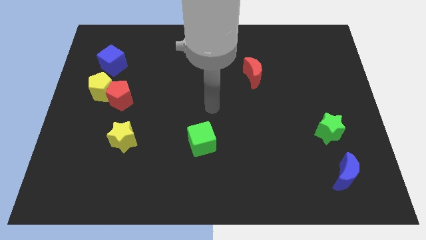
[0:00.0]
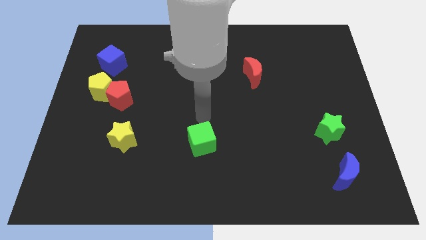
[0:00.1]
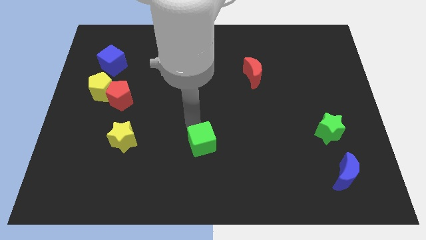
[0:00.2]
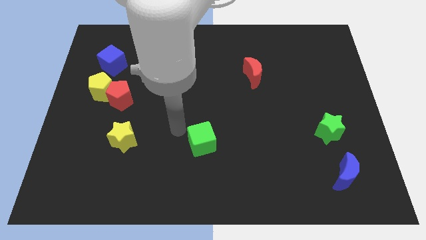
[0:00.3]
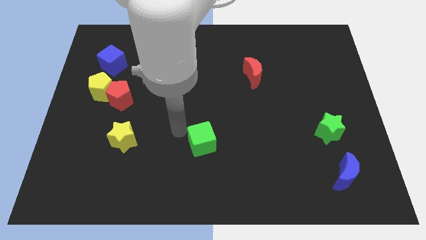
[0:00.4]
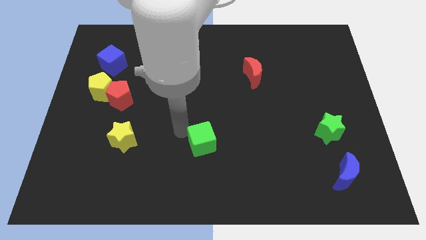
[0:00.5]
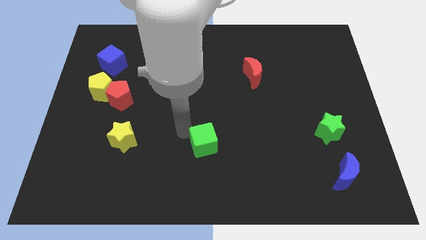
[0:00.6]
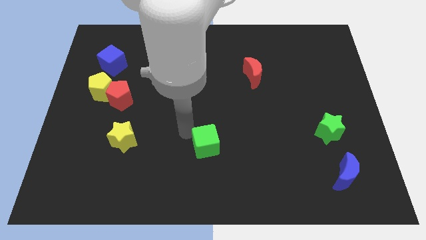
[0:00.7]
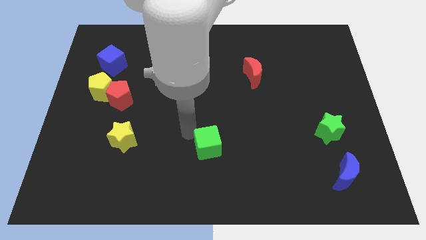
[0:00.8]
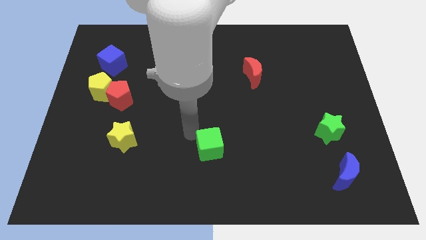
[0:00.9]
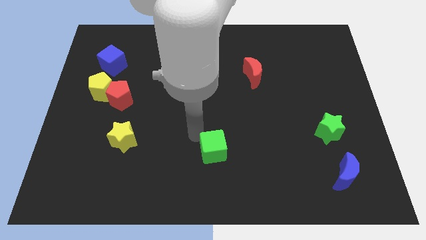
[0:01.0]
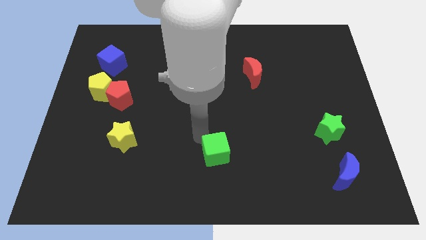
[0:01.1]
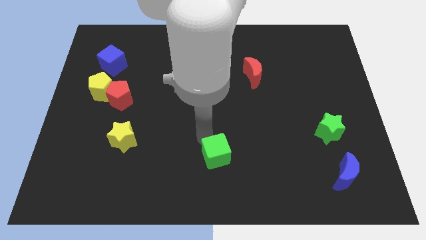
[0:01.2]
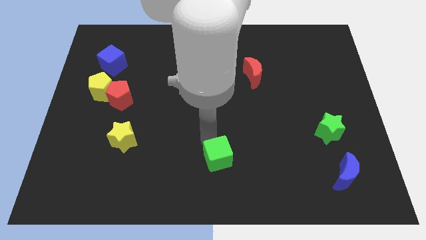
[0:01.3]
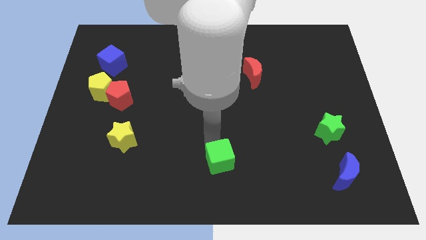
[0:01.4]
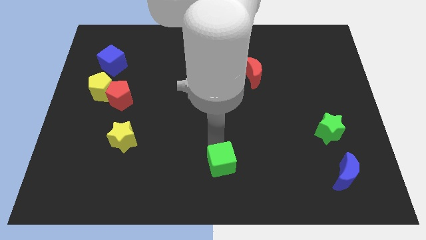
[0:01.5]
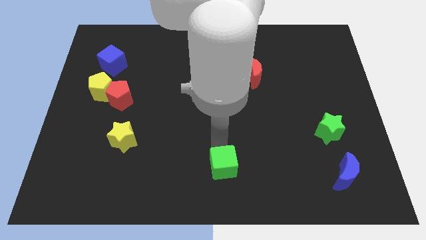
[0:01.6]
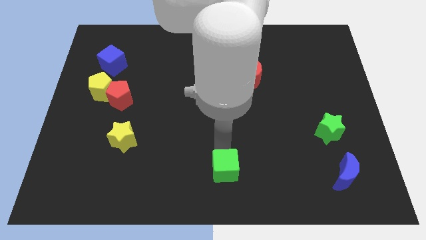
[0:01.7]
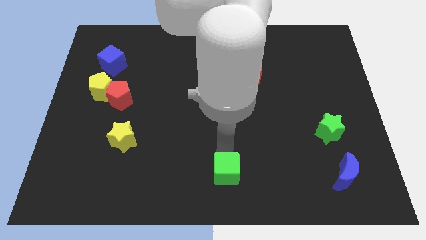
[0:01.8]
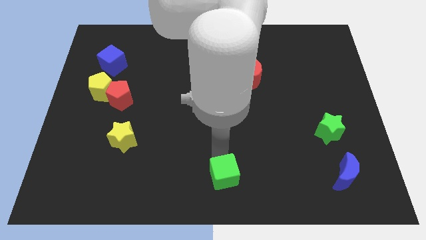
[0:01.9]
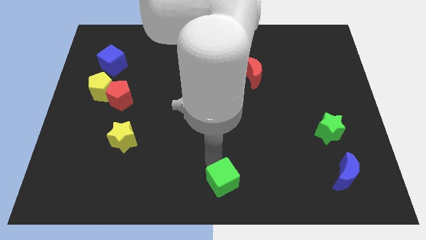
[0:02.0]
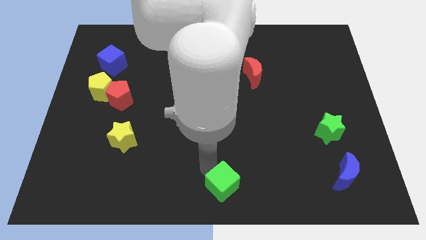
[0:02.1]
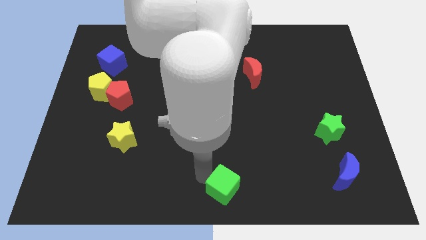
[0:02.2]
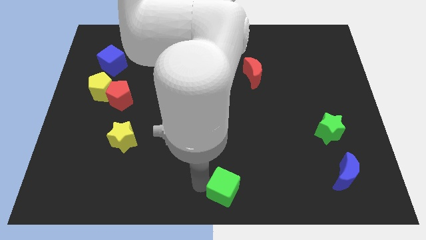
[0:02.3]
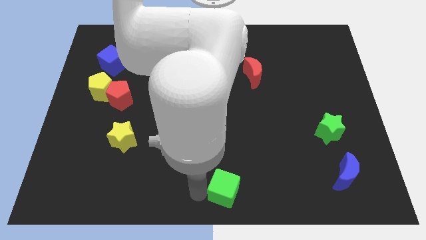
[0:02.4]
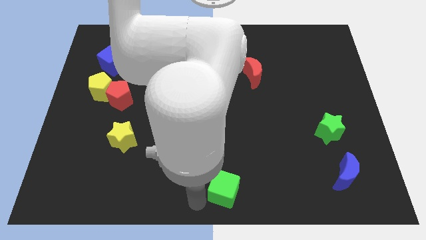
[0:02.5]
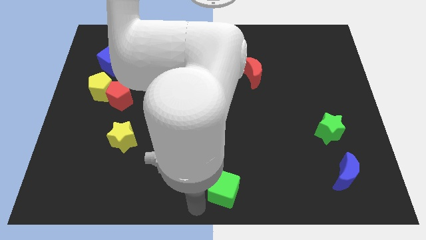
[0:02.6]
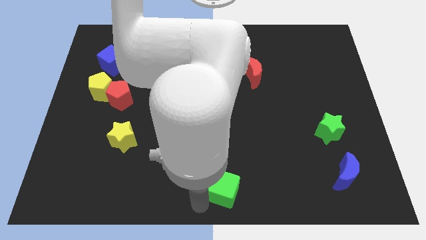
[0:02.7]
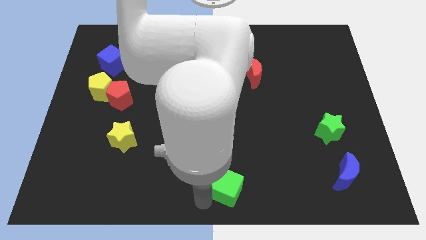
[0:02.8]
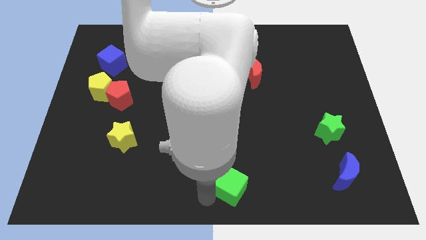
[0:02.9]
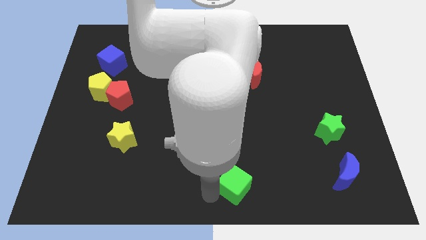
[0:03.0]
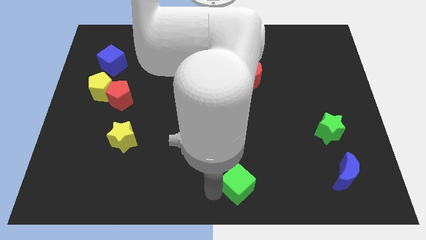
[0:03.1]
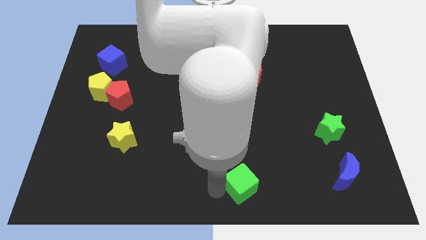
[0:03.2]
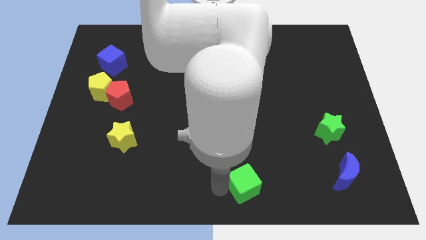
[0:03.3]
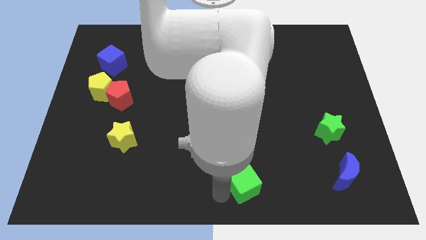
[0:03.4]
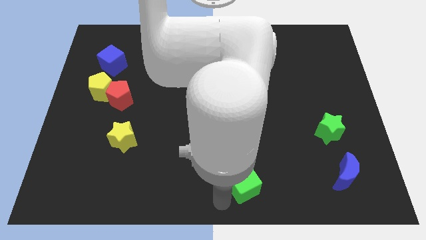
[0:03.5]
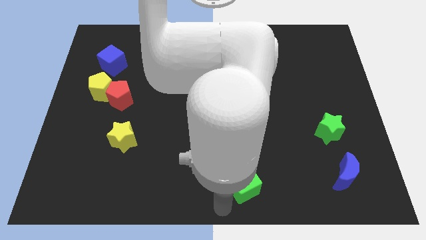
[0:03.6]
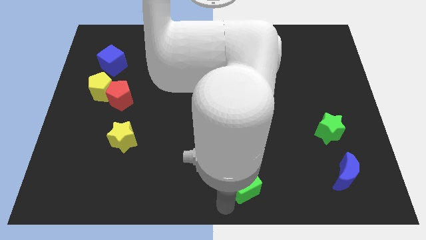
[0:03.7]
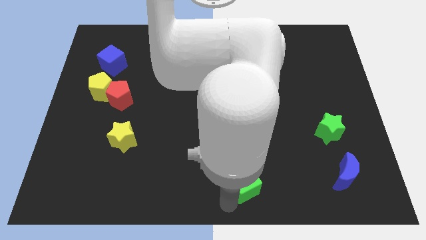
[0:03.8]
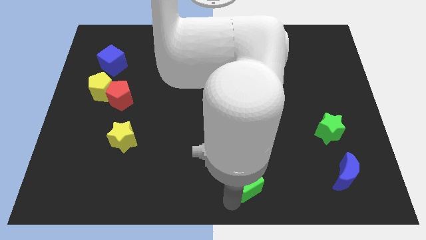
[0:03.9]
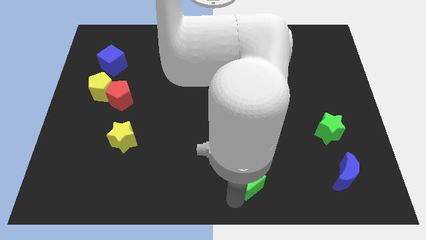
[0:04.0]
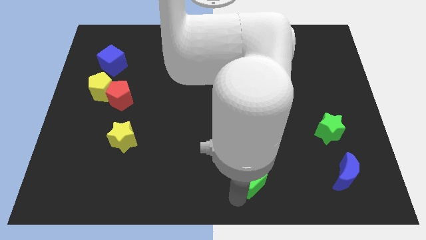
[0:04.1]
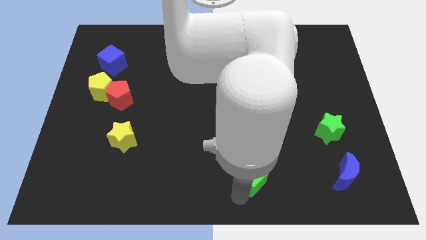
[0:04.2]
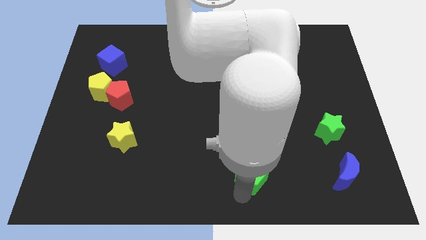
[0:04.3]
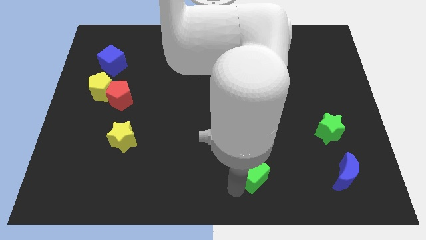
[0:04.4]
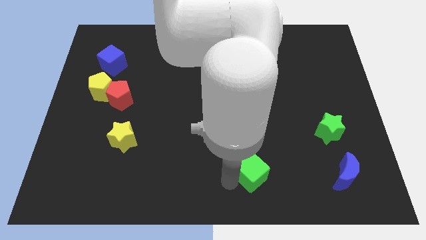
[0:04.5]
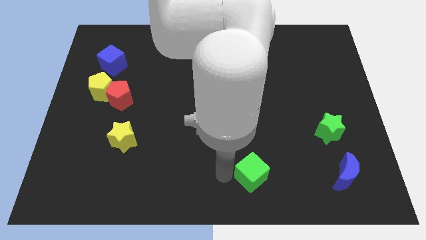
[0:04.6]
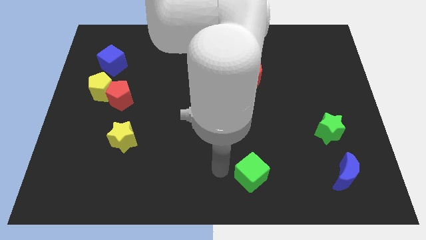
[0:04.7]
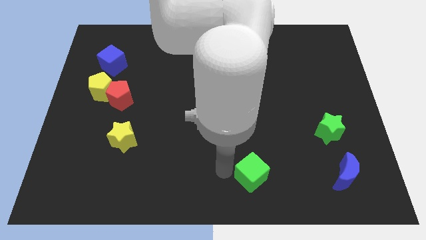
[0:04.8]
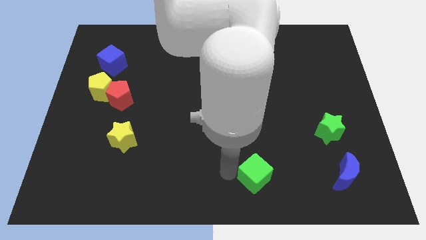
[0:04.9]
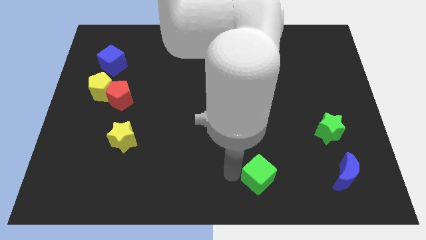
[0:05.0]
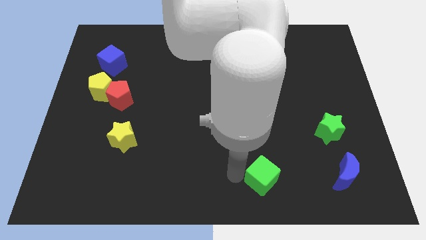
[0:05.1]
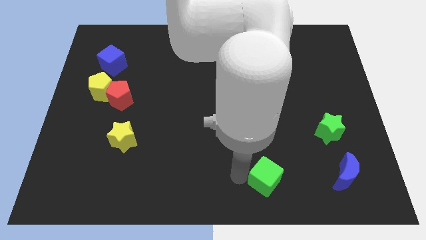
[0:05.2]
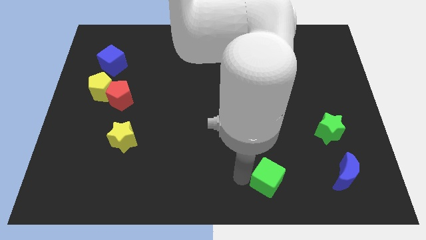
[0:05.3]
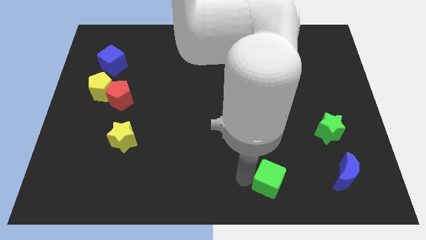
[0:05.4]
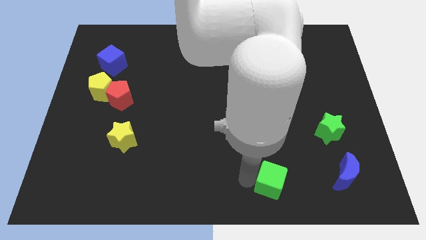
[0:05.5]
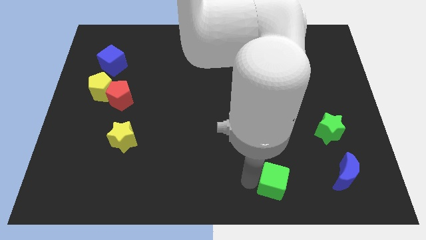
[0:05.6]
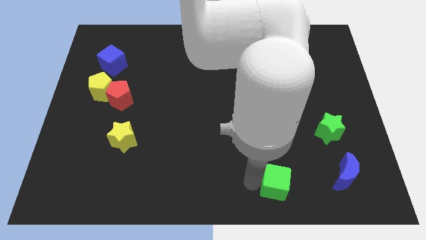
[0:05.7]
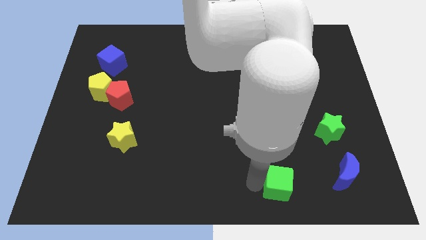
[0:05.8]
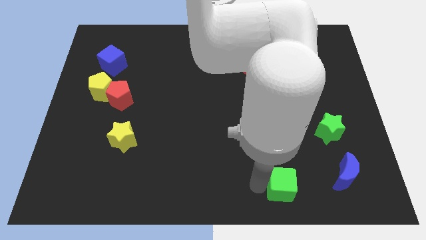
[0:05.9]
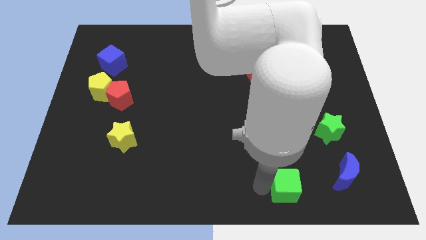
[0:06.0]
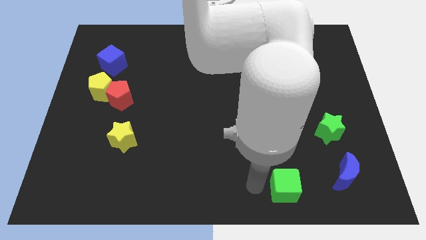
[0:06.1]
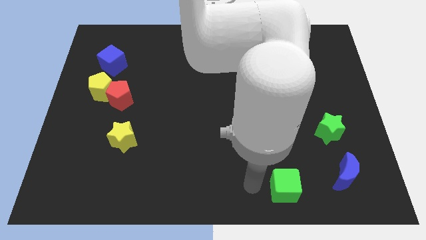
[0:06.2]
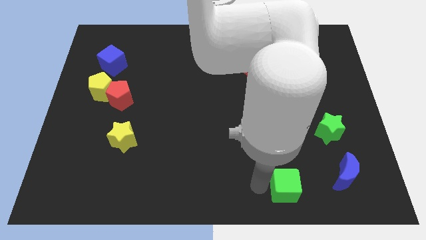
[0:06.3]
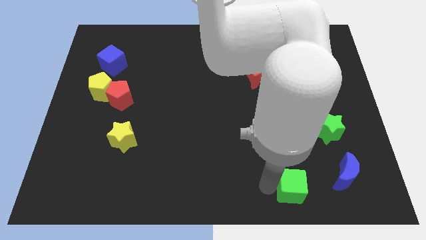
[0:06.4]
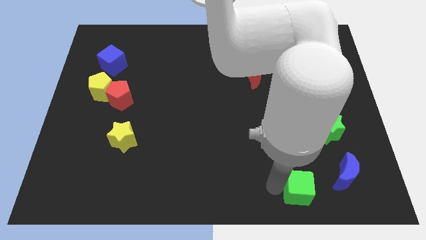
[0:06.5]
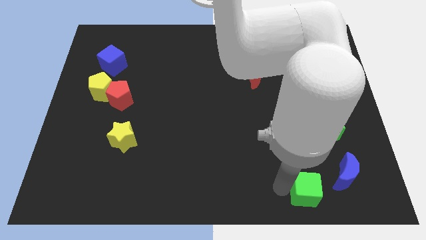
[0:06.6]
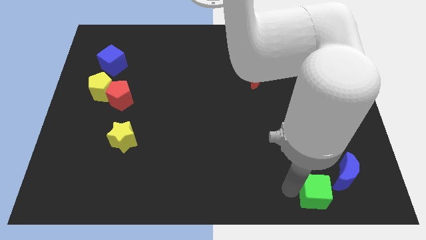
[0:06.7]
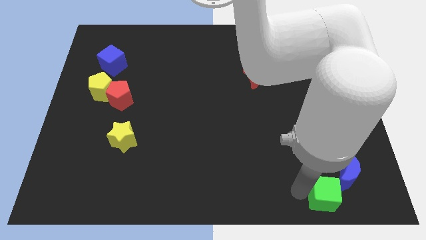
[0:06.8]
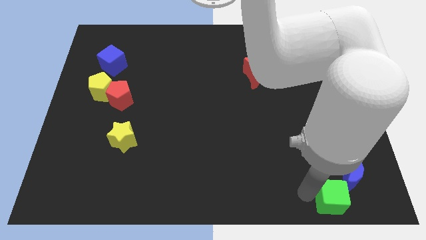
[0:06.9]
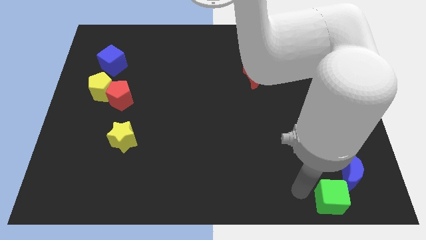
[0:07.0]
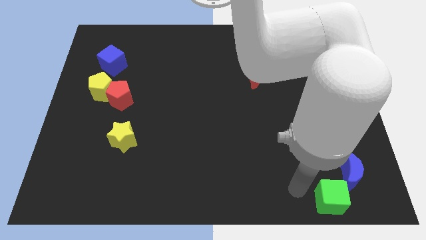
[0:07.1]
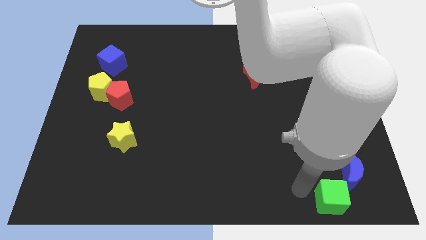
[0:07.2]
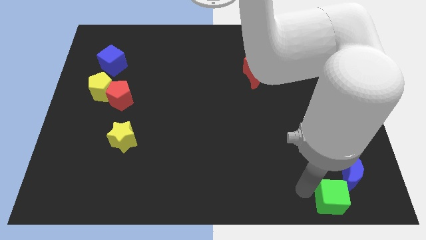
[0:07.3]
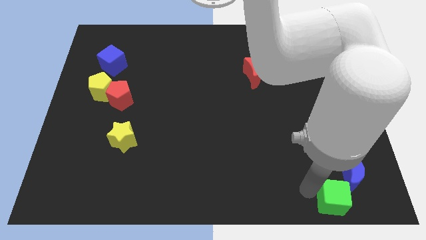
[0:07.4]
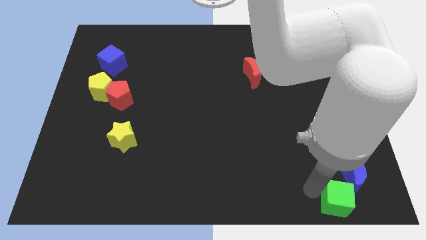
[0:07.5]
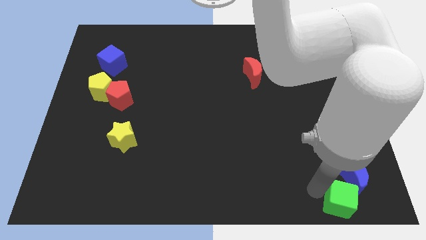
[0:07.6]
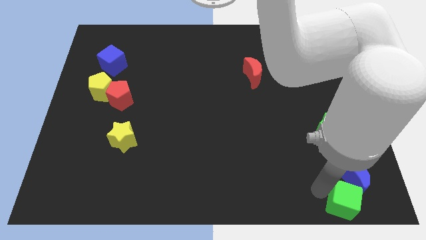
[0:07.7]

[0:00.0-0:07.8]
slide the green cube to the lower right corner

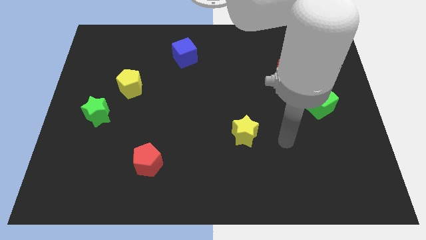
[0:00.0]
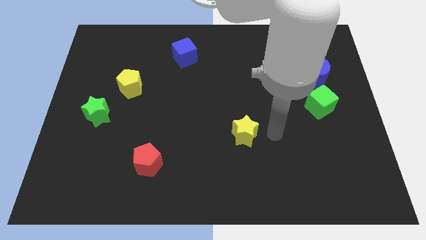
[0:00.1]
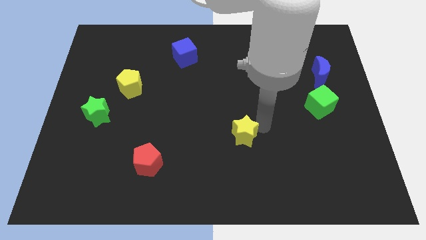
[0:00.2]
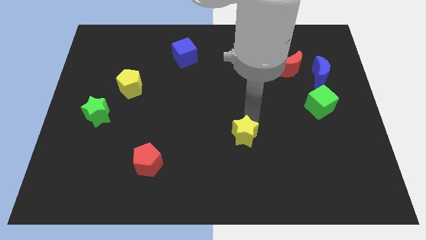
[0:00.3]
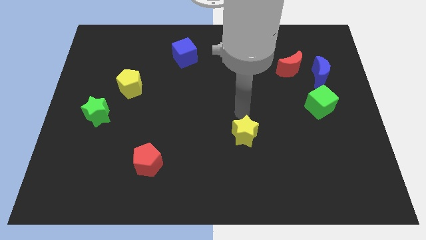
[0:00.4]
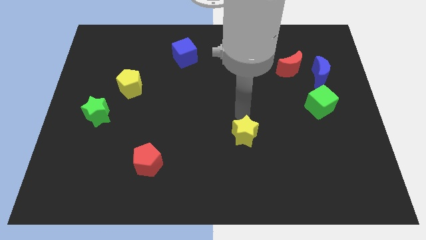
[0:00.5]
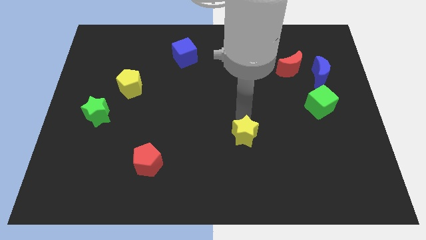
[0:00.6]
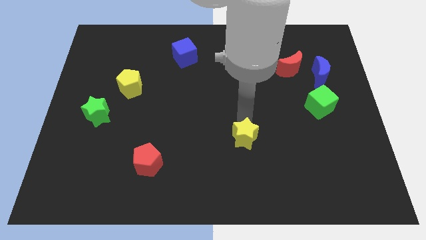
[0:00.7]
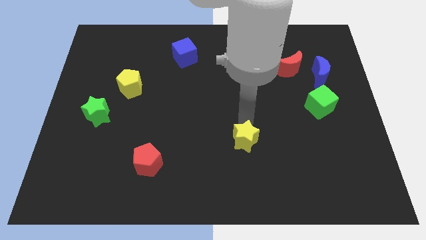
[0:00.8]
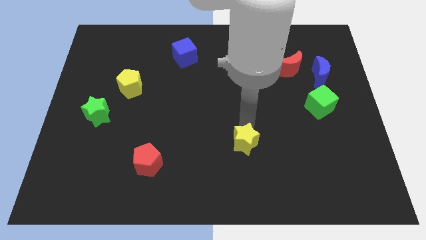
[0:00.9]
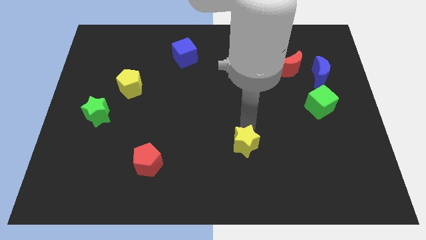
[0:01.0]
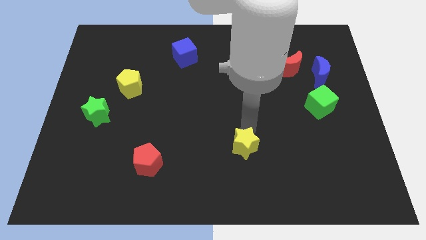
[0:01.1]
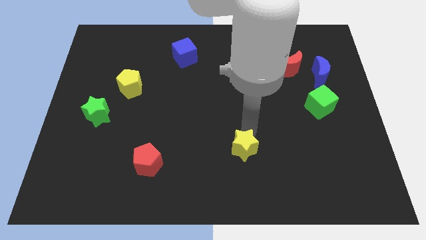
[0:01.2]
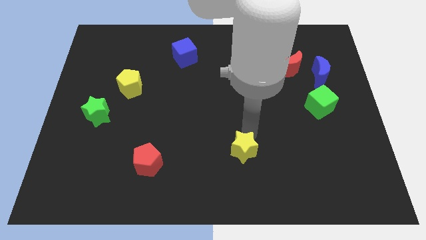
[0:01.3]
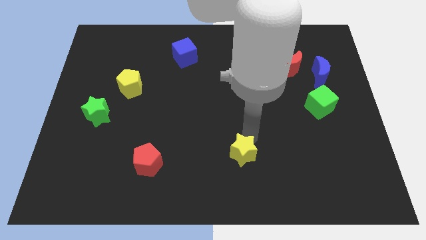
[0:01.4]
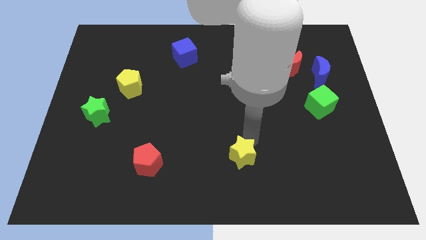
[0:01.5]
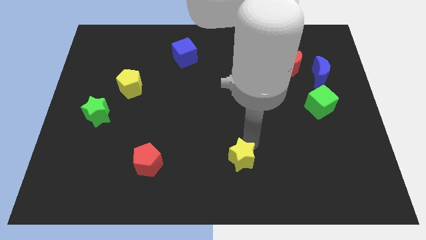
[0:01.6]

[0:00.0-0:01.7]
slide the yellow star to the bottom side
